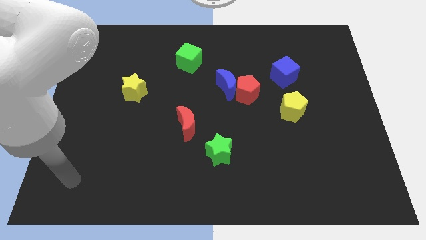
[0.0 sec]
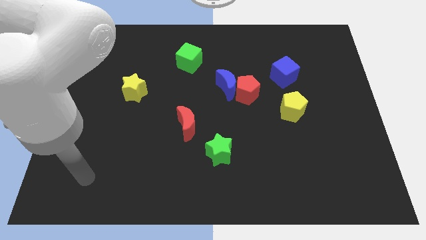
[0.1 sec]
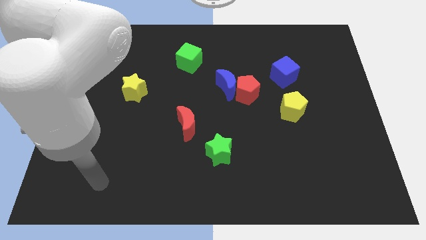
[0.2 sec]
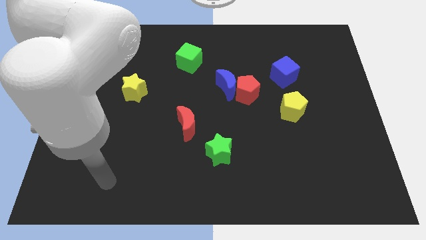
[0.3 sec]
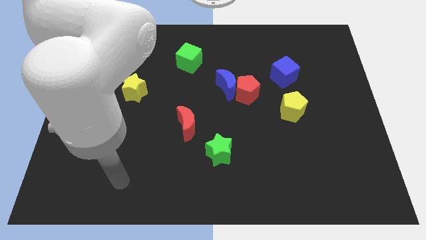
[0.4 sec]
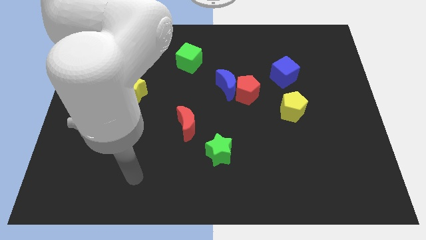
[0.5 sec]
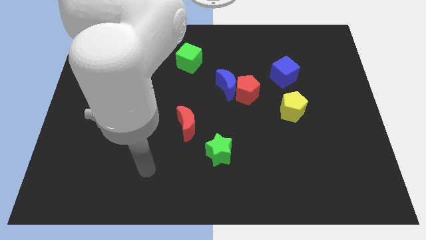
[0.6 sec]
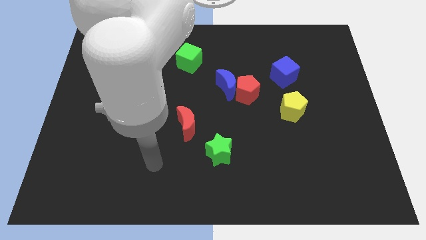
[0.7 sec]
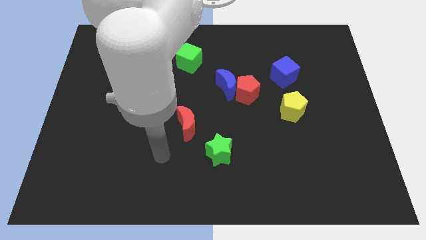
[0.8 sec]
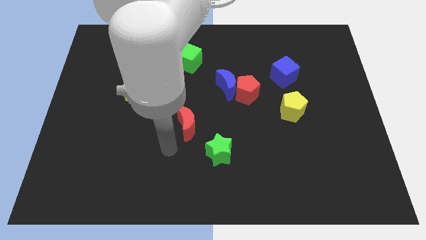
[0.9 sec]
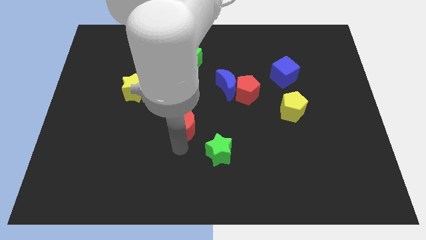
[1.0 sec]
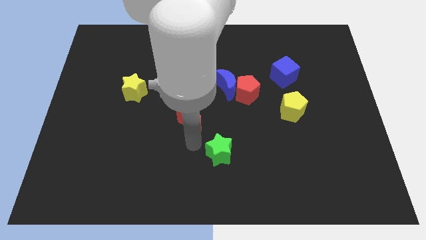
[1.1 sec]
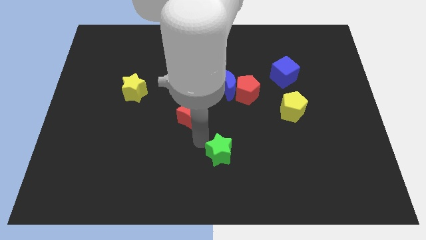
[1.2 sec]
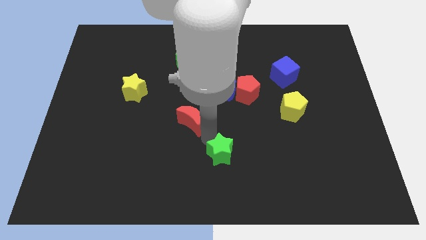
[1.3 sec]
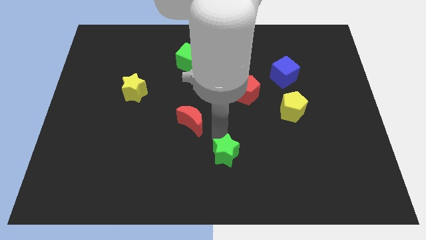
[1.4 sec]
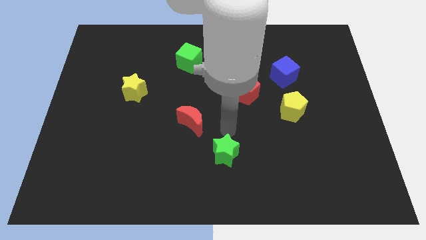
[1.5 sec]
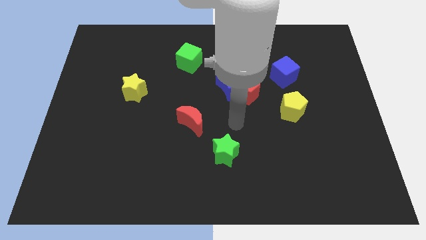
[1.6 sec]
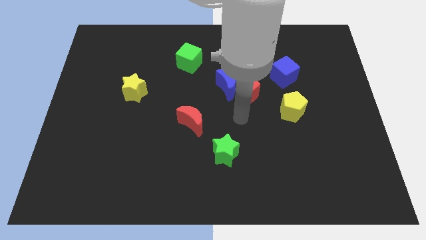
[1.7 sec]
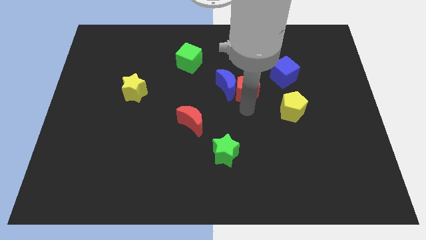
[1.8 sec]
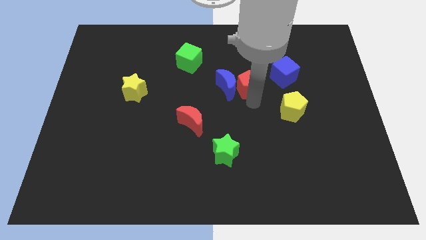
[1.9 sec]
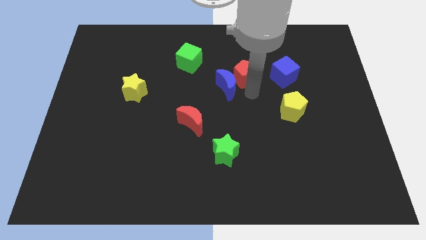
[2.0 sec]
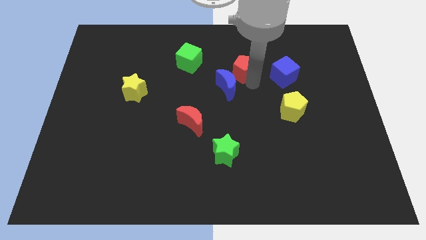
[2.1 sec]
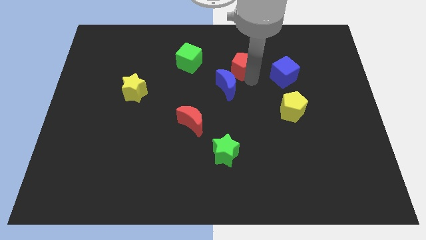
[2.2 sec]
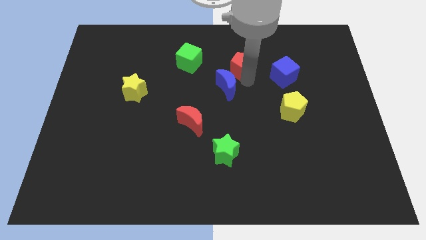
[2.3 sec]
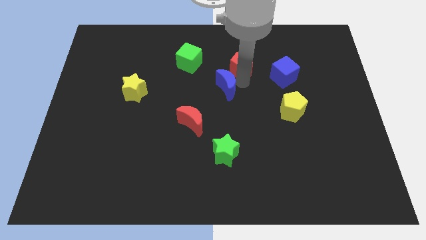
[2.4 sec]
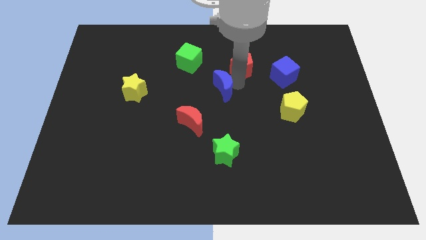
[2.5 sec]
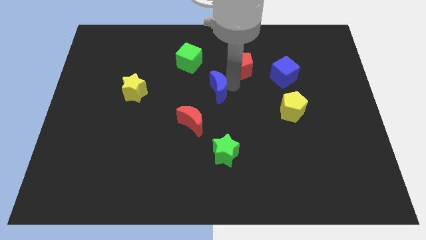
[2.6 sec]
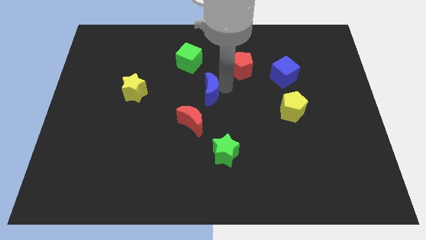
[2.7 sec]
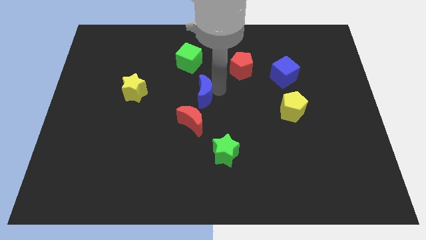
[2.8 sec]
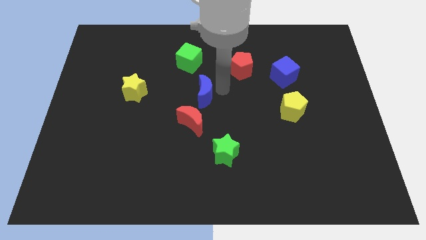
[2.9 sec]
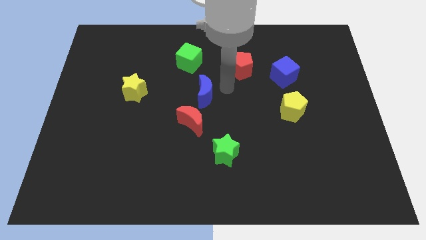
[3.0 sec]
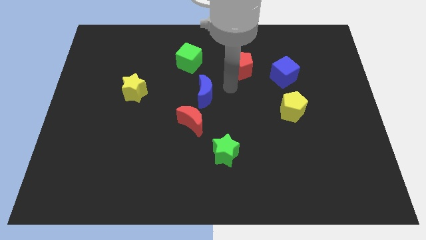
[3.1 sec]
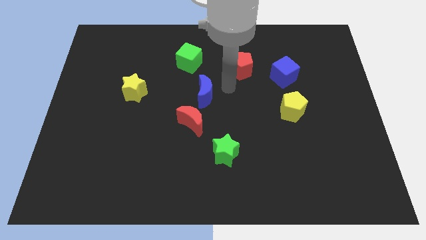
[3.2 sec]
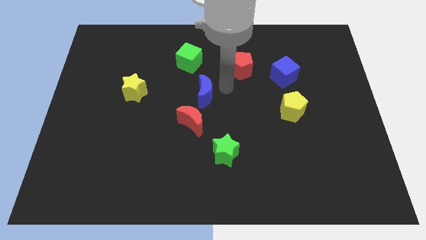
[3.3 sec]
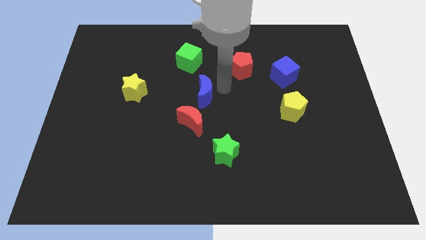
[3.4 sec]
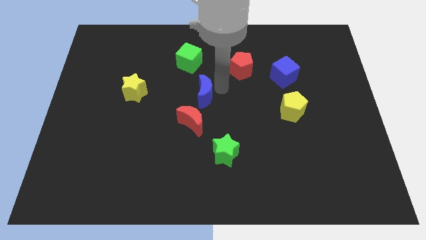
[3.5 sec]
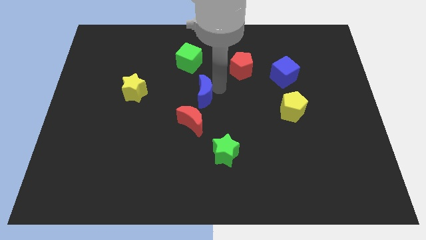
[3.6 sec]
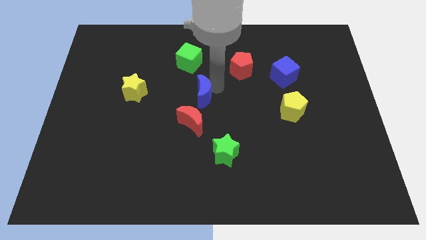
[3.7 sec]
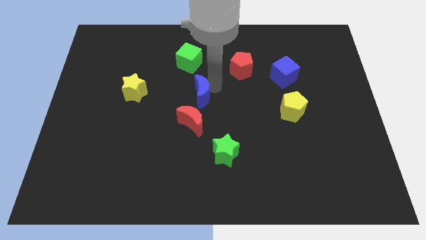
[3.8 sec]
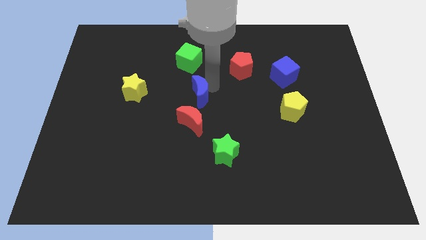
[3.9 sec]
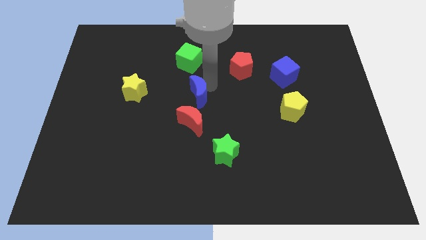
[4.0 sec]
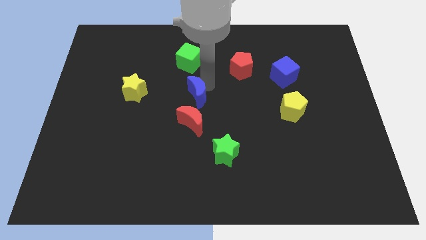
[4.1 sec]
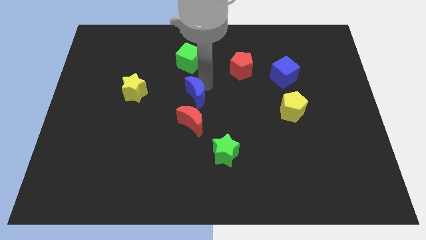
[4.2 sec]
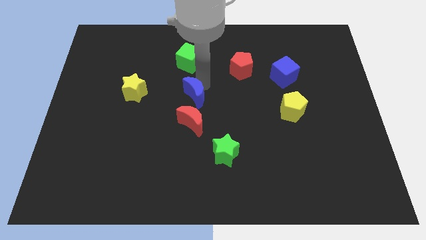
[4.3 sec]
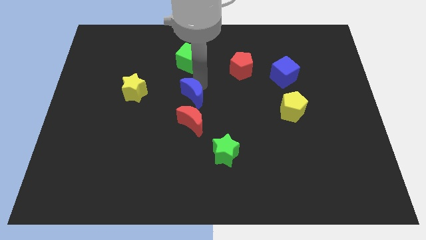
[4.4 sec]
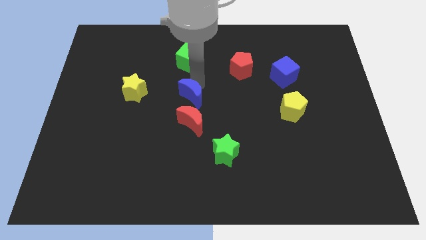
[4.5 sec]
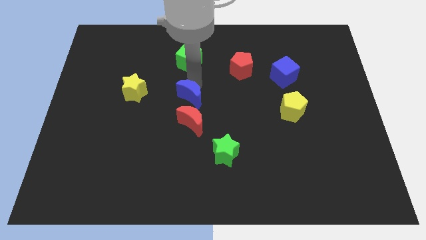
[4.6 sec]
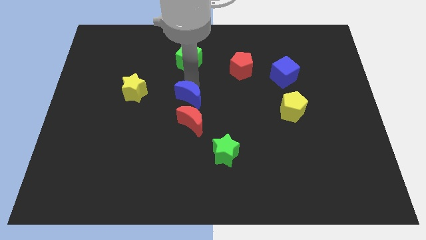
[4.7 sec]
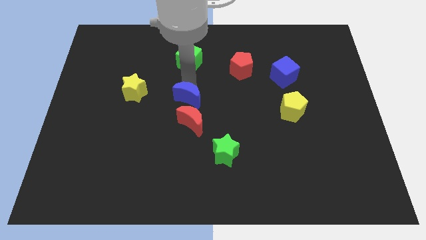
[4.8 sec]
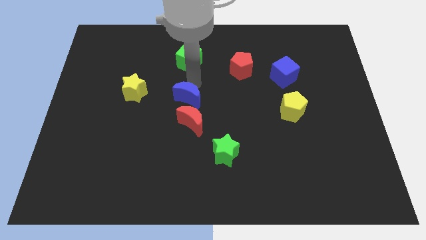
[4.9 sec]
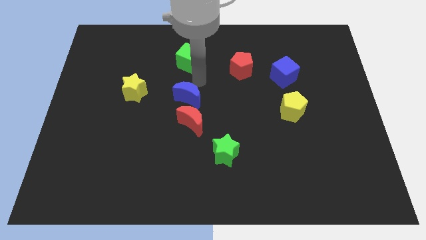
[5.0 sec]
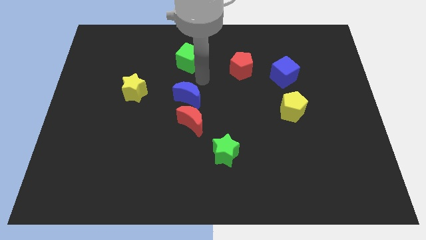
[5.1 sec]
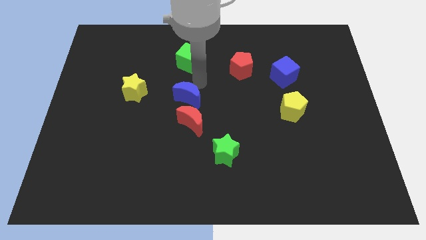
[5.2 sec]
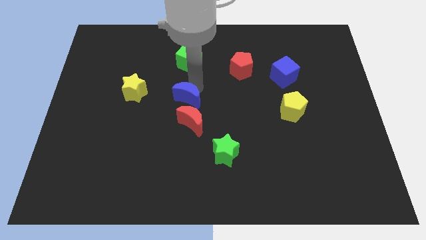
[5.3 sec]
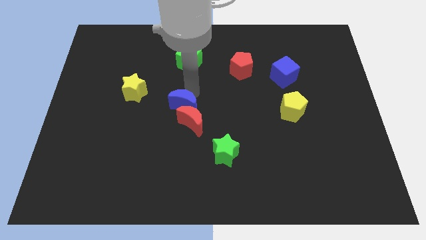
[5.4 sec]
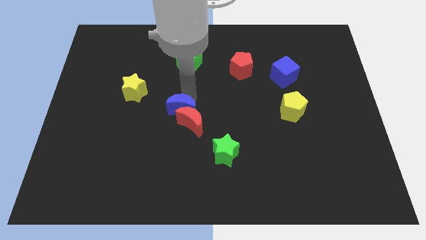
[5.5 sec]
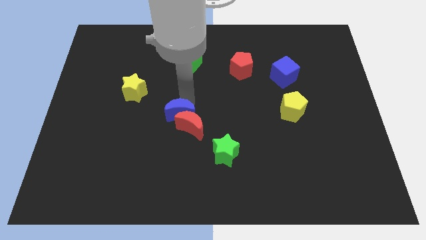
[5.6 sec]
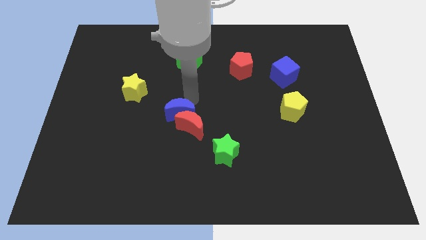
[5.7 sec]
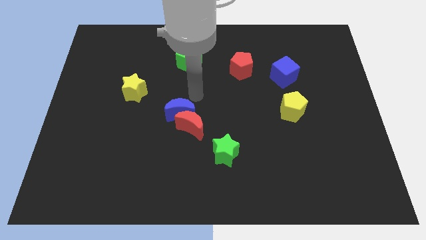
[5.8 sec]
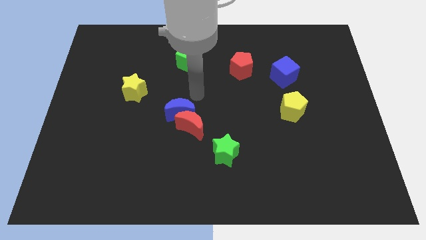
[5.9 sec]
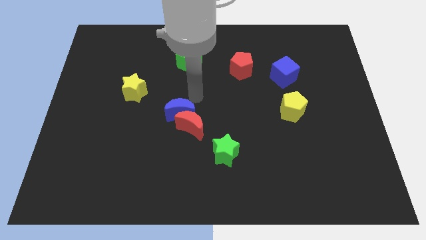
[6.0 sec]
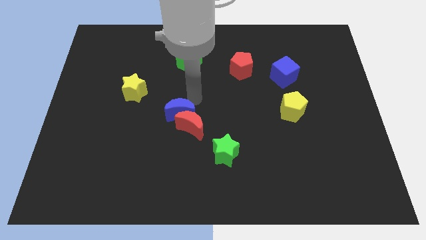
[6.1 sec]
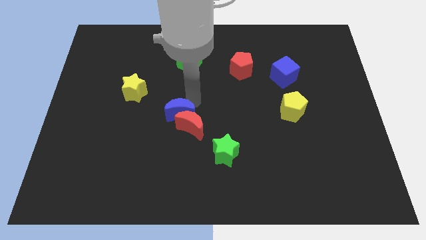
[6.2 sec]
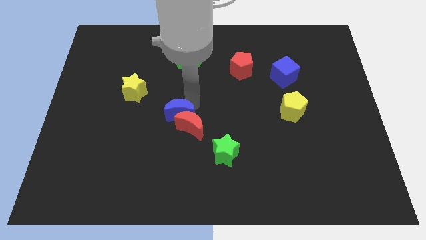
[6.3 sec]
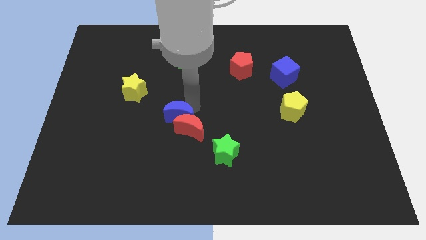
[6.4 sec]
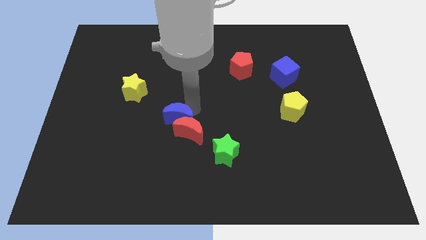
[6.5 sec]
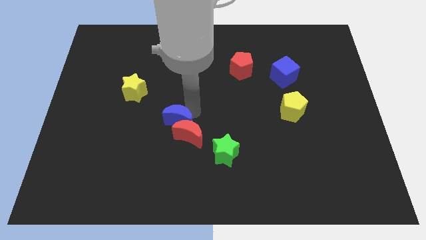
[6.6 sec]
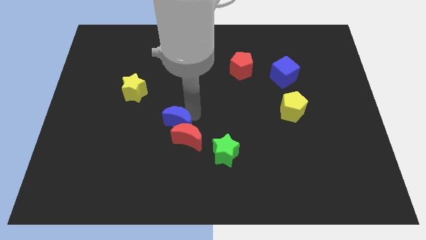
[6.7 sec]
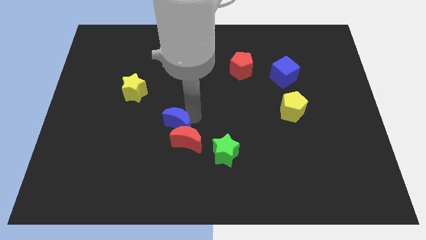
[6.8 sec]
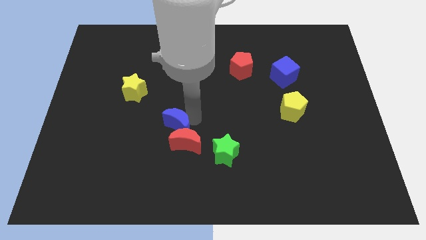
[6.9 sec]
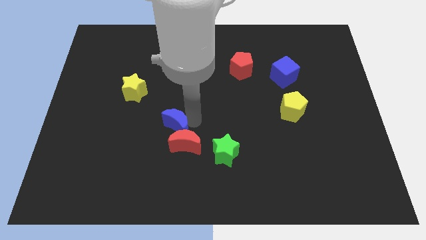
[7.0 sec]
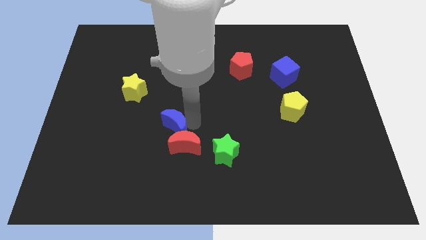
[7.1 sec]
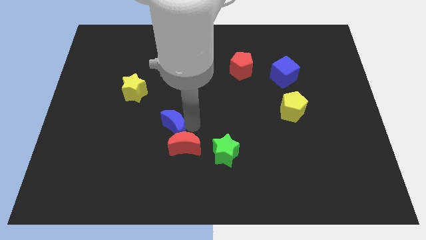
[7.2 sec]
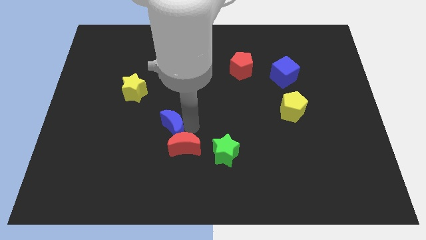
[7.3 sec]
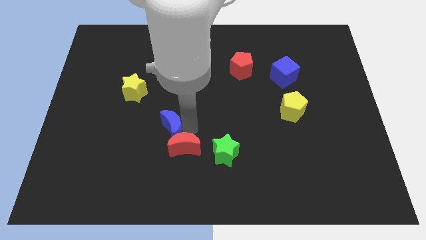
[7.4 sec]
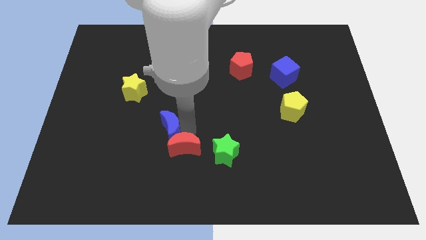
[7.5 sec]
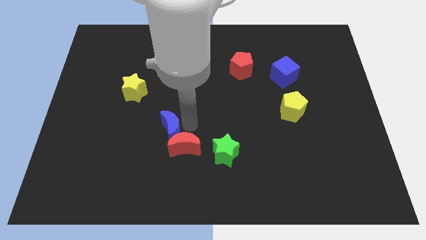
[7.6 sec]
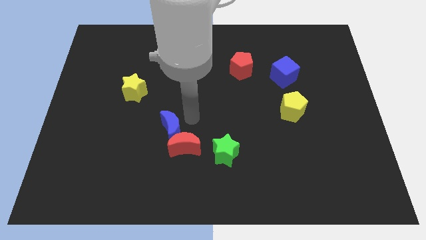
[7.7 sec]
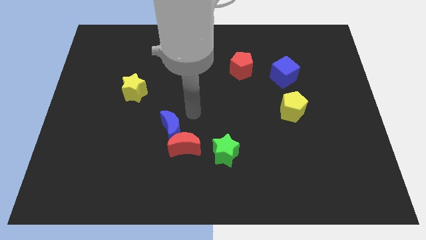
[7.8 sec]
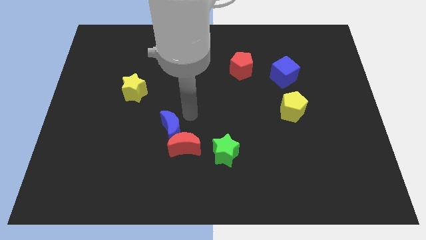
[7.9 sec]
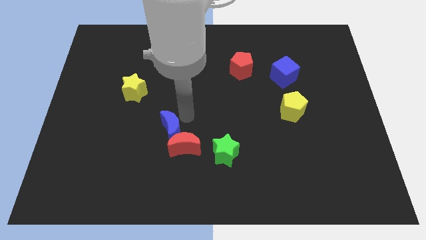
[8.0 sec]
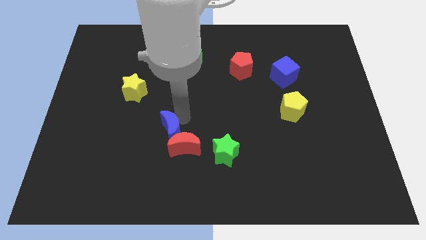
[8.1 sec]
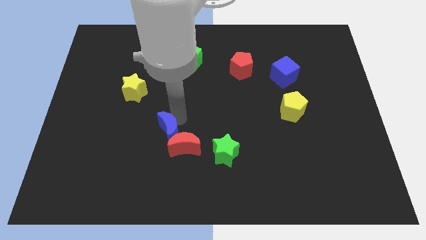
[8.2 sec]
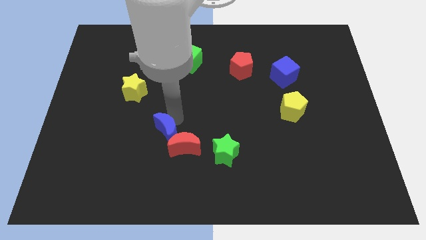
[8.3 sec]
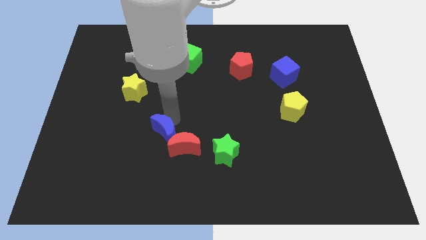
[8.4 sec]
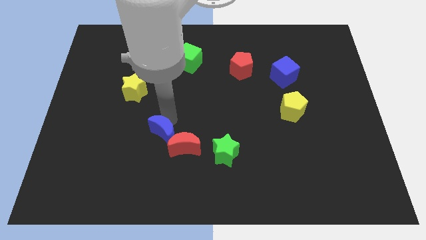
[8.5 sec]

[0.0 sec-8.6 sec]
move the blue moon downwards and to the left diagonally
